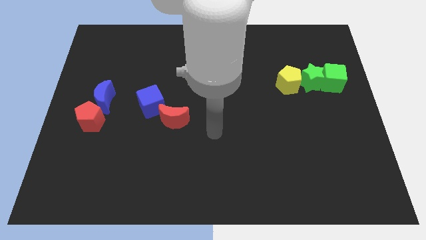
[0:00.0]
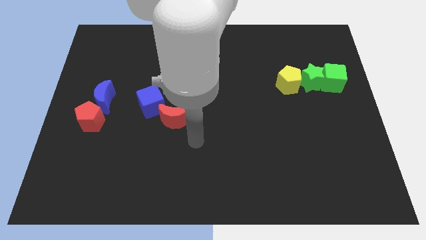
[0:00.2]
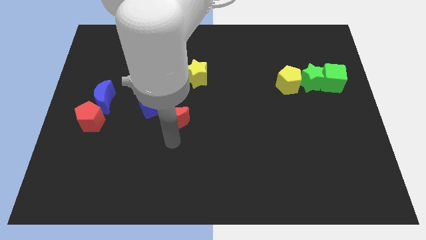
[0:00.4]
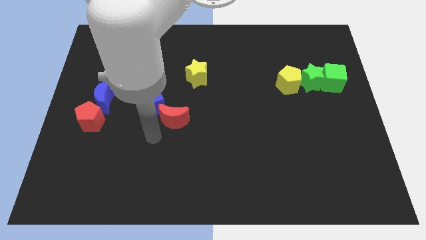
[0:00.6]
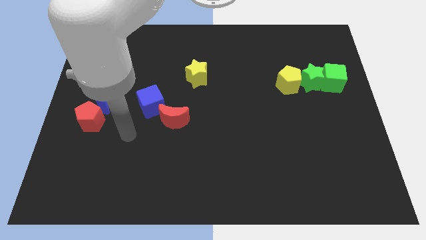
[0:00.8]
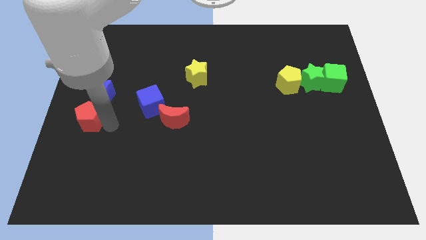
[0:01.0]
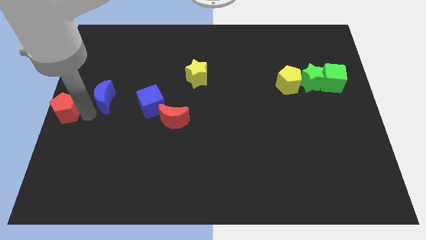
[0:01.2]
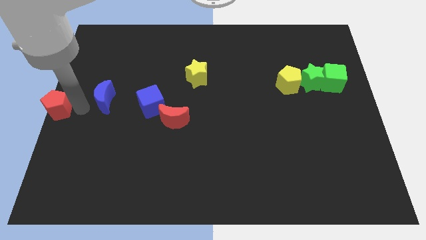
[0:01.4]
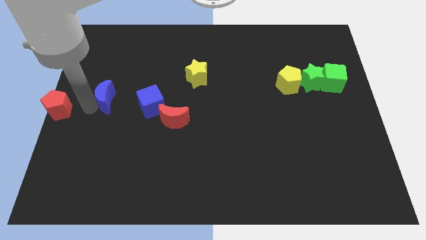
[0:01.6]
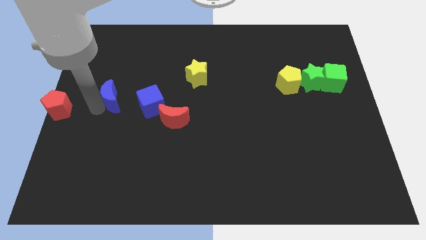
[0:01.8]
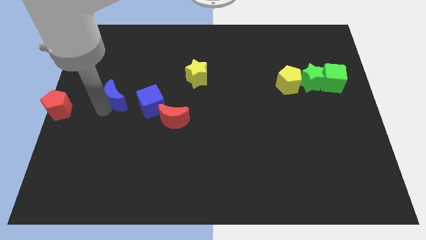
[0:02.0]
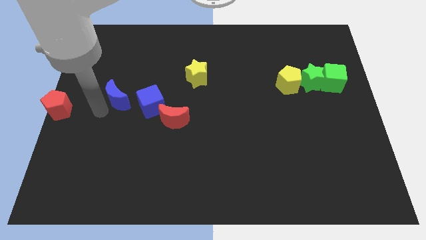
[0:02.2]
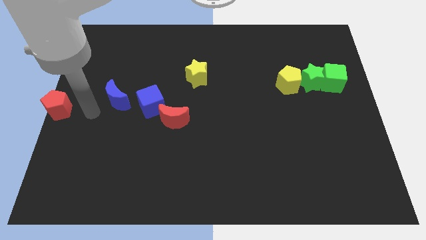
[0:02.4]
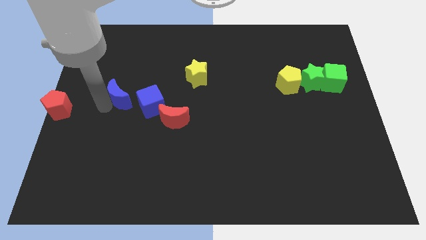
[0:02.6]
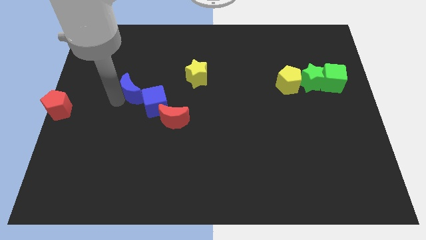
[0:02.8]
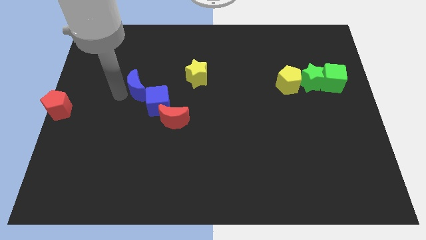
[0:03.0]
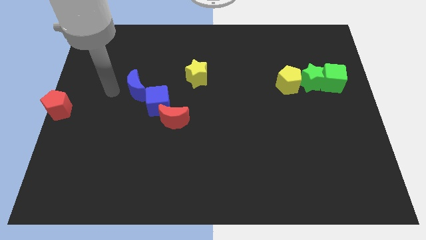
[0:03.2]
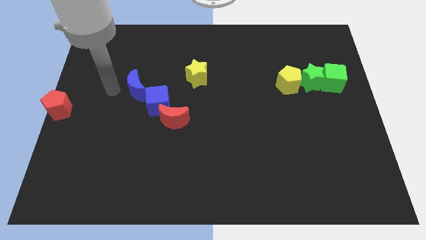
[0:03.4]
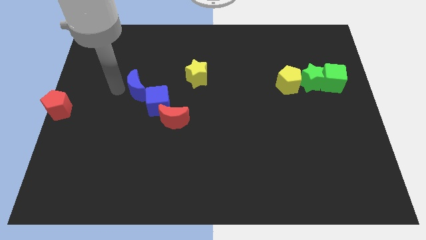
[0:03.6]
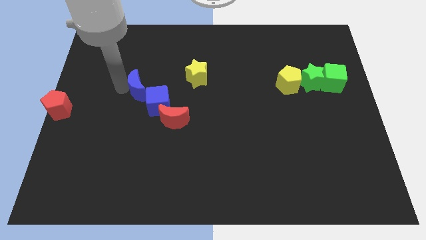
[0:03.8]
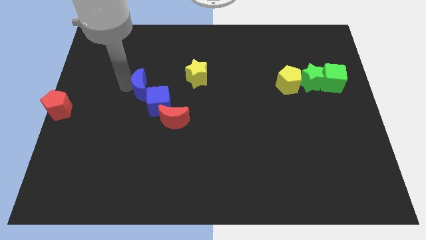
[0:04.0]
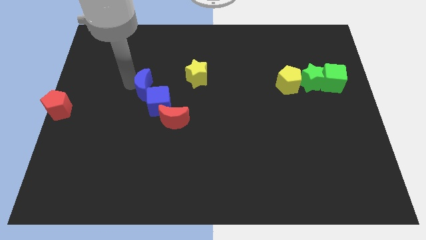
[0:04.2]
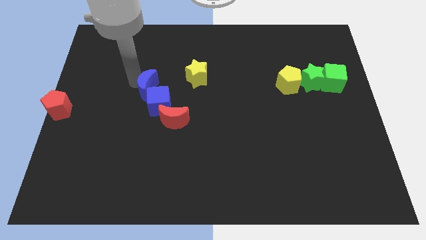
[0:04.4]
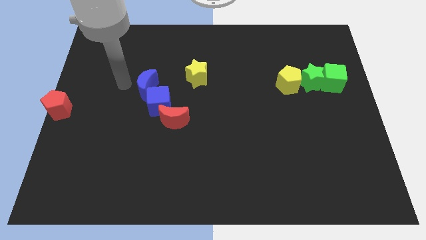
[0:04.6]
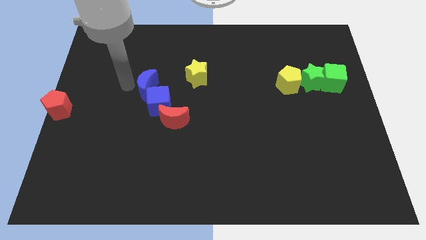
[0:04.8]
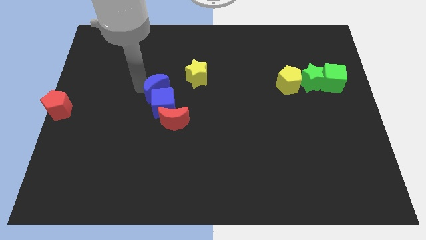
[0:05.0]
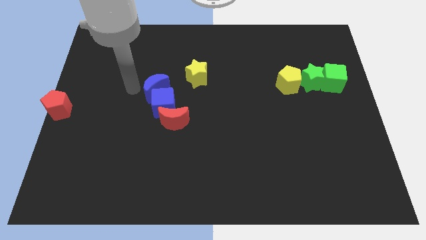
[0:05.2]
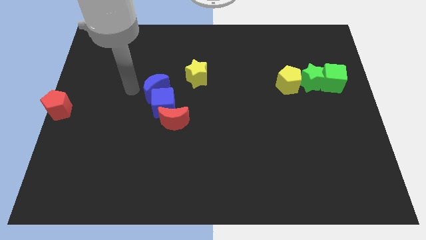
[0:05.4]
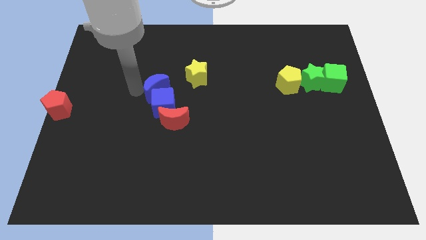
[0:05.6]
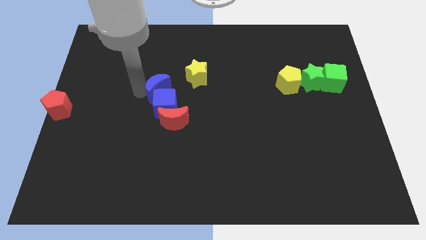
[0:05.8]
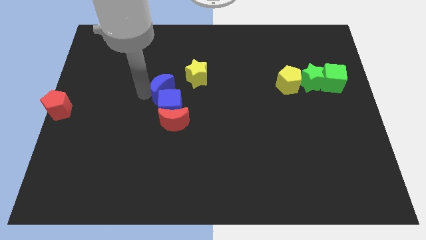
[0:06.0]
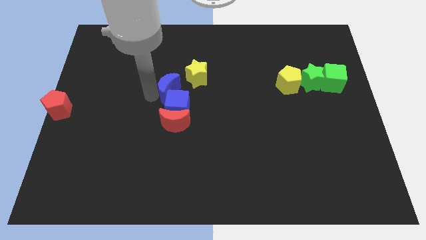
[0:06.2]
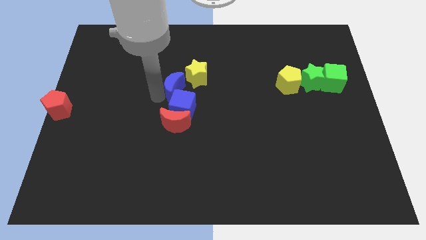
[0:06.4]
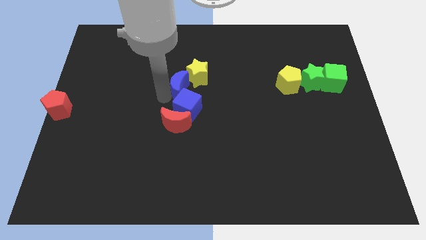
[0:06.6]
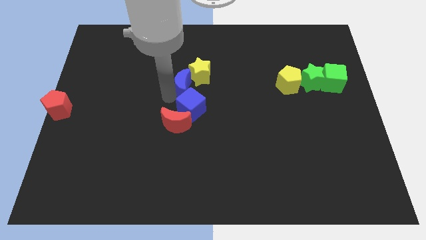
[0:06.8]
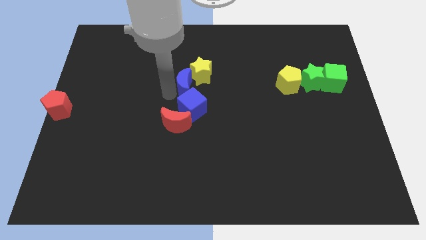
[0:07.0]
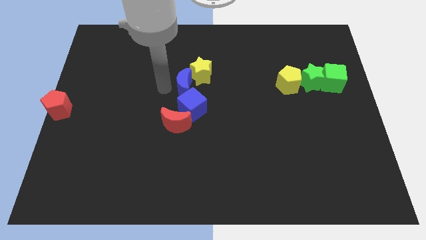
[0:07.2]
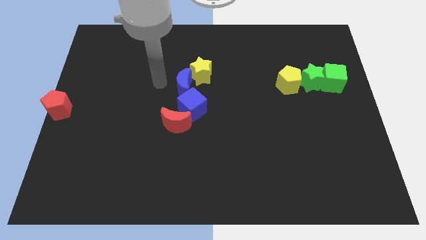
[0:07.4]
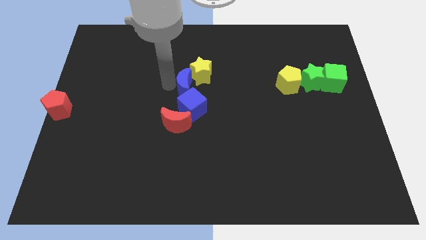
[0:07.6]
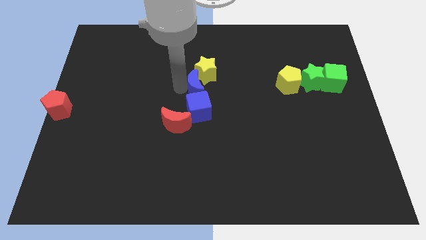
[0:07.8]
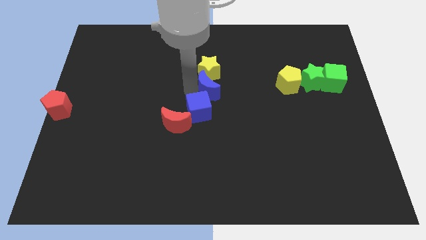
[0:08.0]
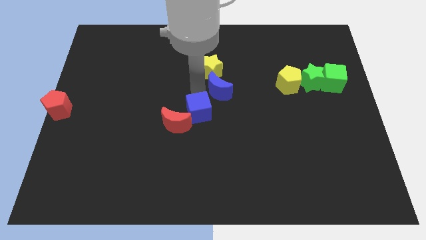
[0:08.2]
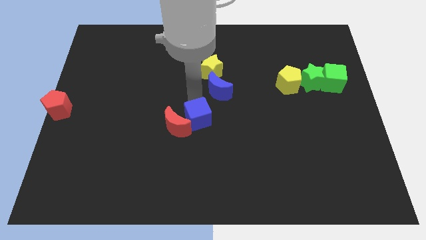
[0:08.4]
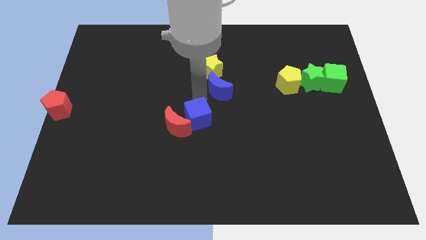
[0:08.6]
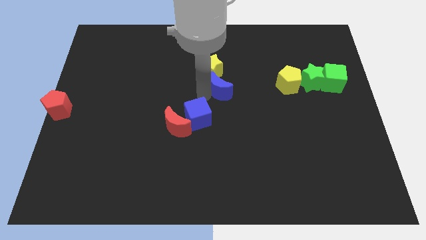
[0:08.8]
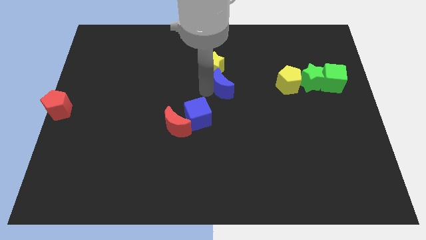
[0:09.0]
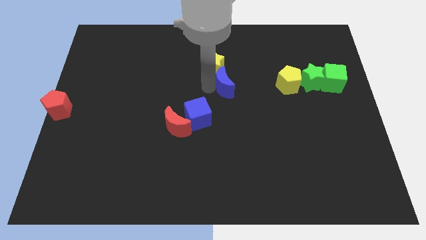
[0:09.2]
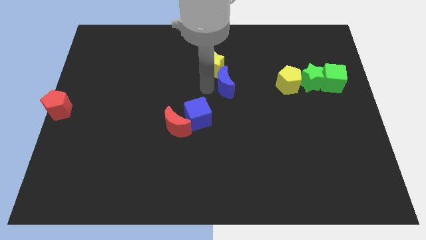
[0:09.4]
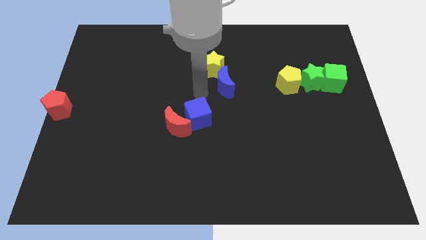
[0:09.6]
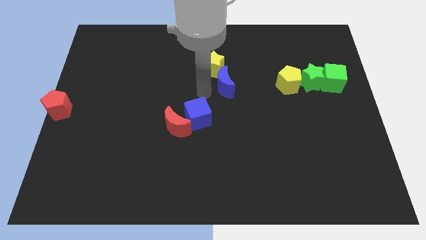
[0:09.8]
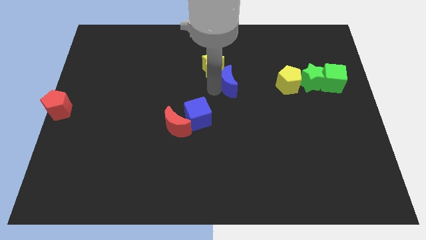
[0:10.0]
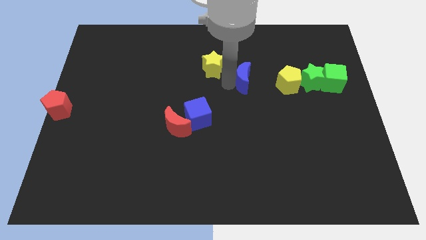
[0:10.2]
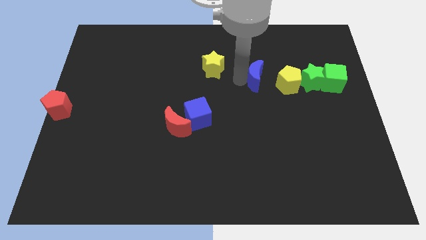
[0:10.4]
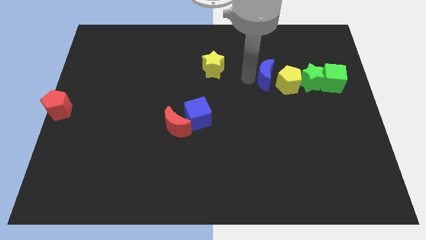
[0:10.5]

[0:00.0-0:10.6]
move the blue moon next to the yellow pentagon
